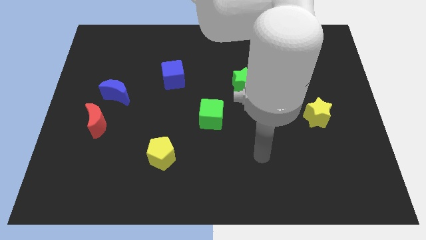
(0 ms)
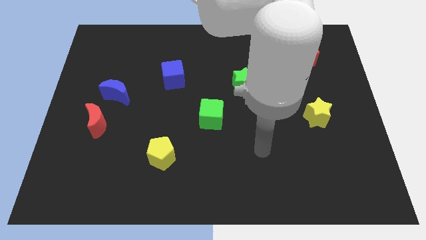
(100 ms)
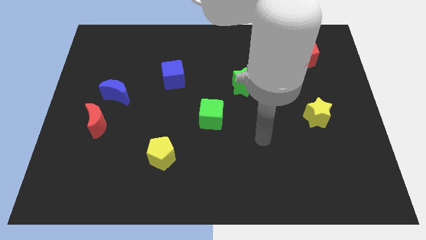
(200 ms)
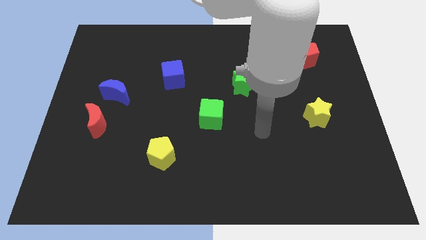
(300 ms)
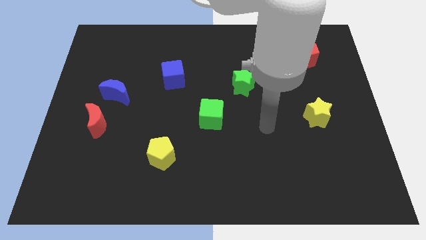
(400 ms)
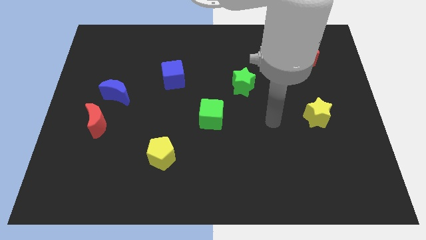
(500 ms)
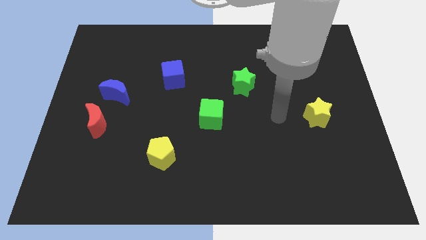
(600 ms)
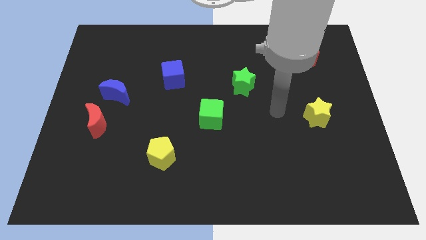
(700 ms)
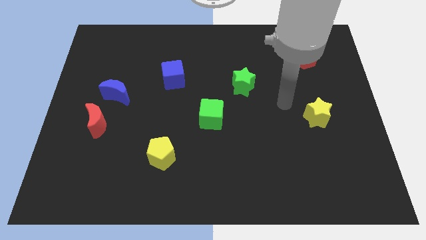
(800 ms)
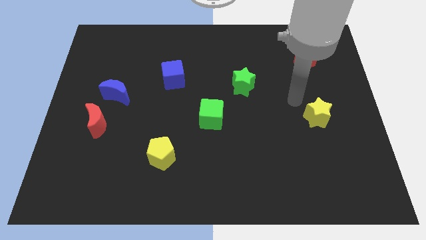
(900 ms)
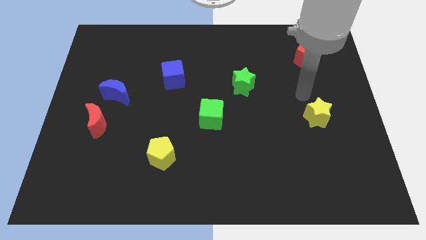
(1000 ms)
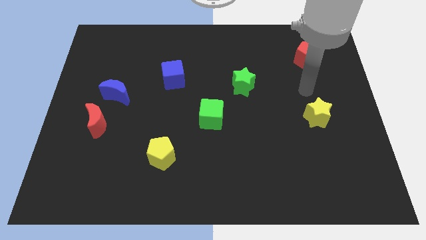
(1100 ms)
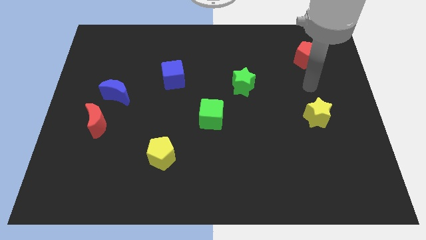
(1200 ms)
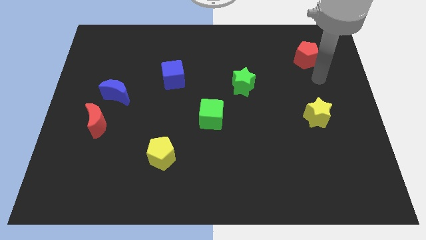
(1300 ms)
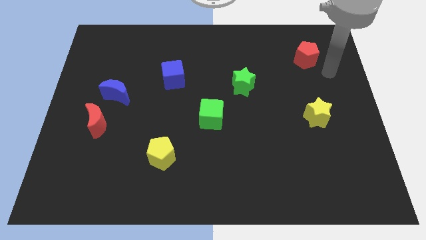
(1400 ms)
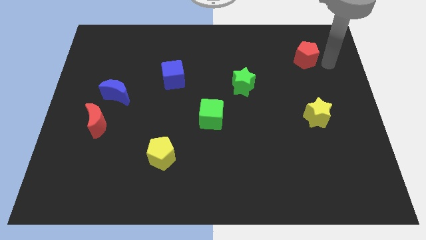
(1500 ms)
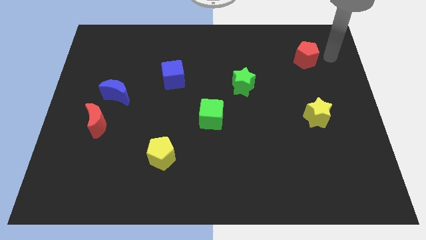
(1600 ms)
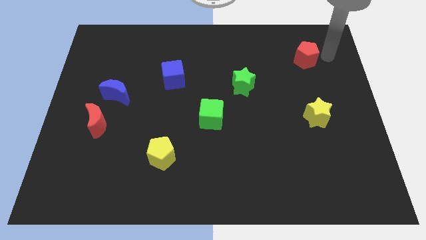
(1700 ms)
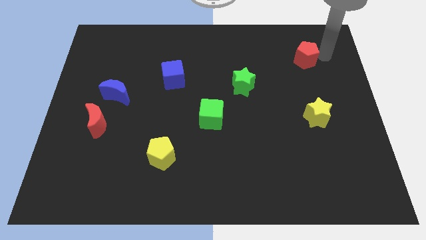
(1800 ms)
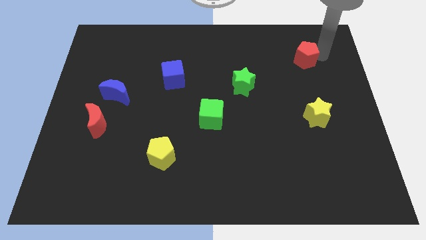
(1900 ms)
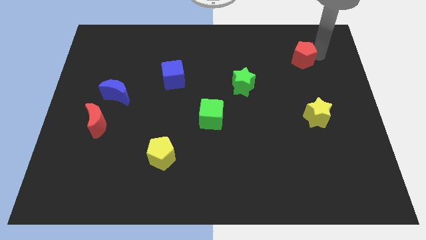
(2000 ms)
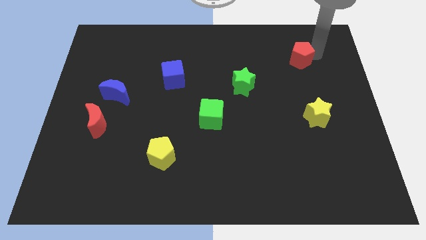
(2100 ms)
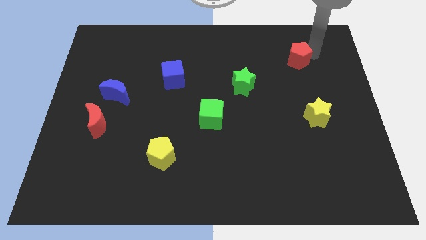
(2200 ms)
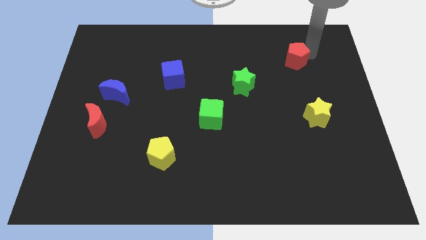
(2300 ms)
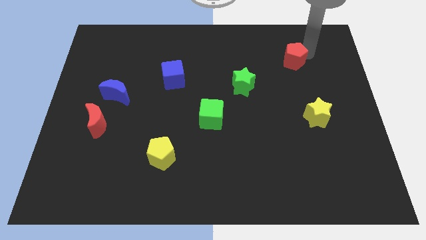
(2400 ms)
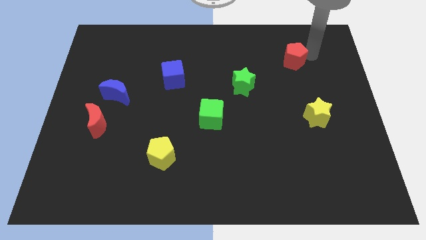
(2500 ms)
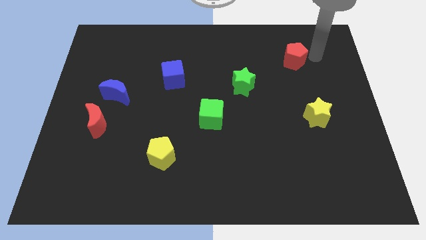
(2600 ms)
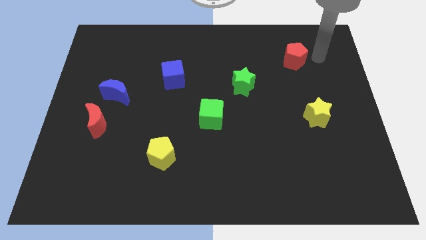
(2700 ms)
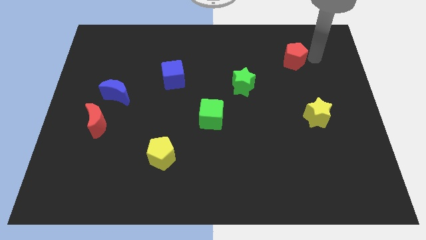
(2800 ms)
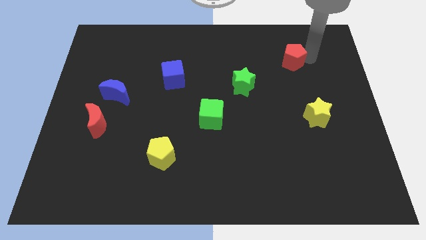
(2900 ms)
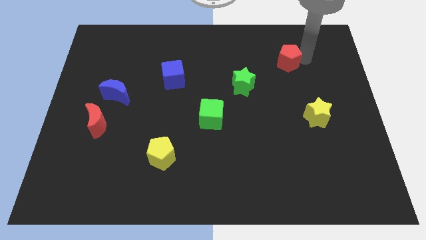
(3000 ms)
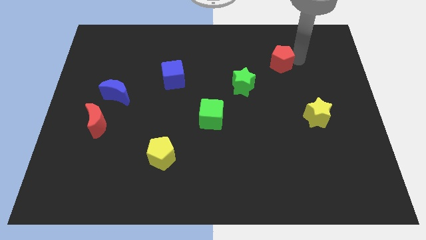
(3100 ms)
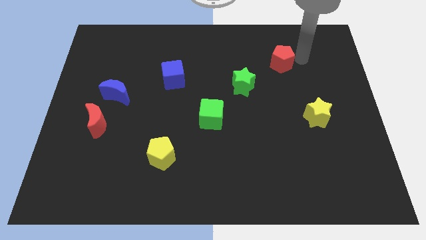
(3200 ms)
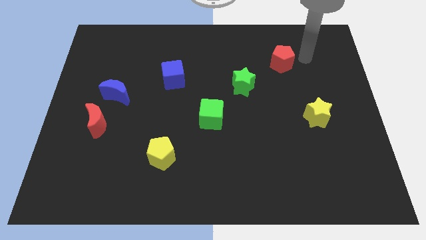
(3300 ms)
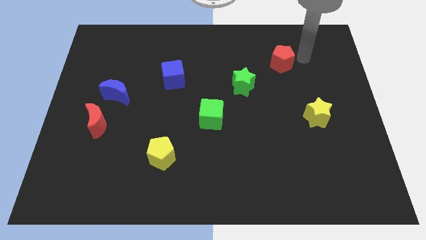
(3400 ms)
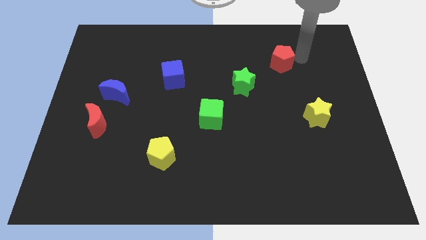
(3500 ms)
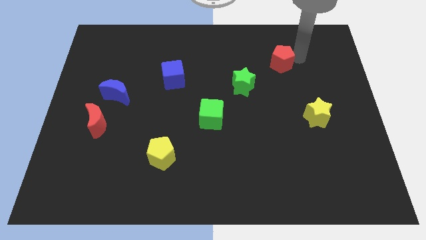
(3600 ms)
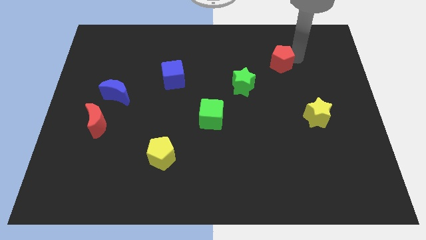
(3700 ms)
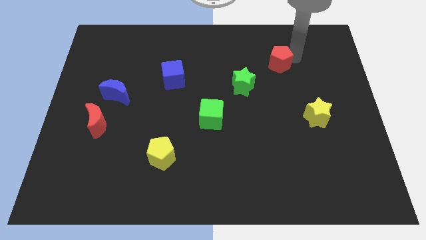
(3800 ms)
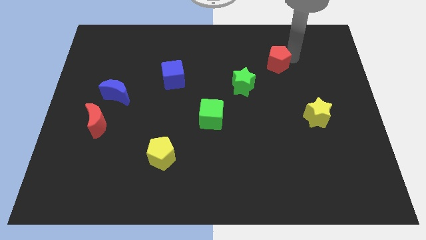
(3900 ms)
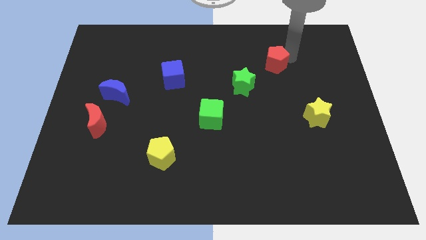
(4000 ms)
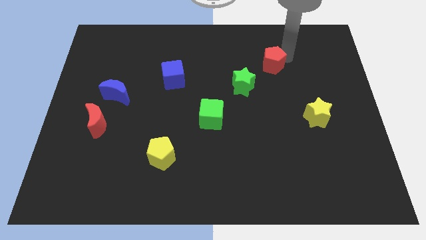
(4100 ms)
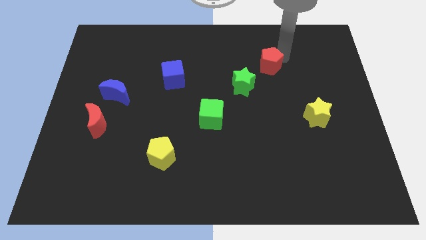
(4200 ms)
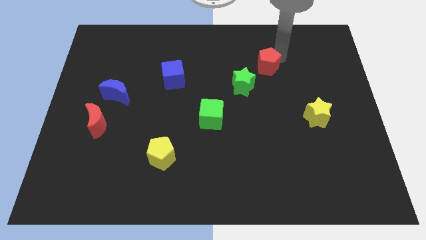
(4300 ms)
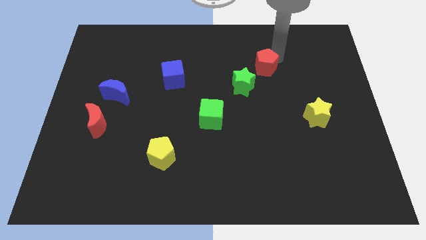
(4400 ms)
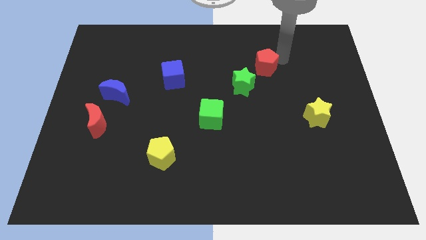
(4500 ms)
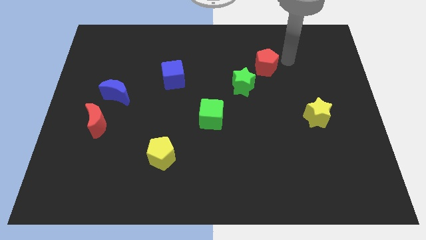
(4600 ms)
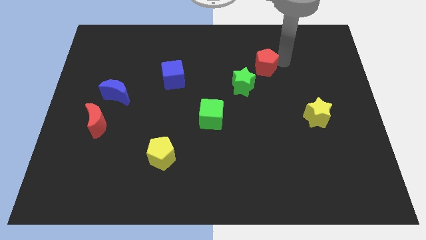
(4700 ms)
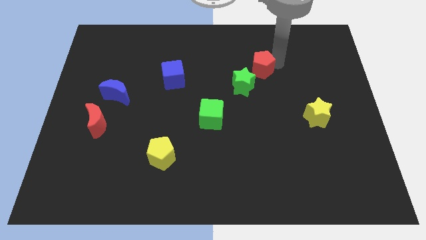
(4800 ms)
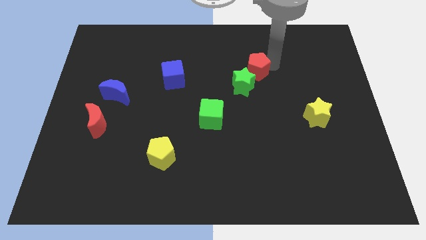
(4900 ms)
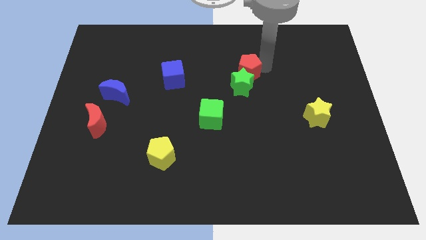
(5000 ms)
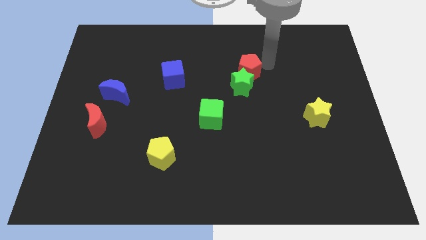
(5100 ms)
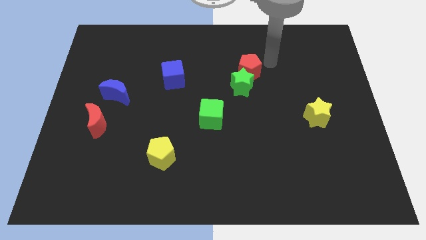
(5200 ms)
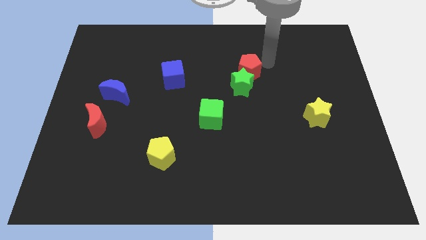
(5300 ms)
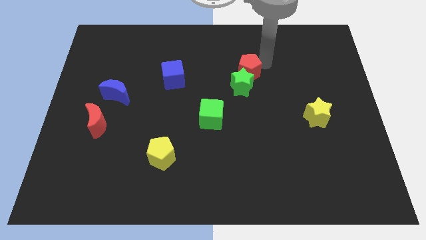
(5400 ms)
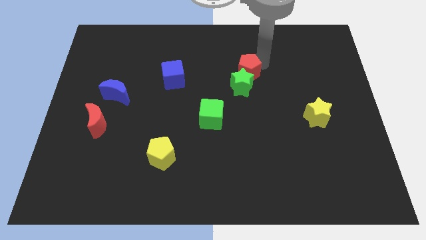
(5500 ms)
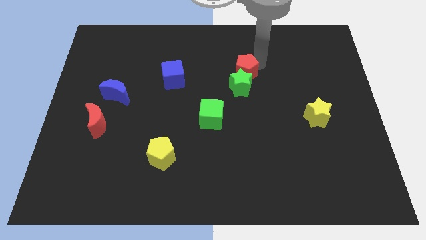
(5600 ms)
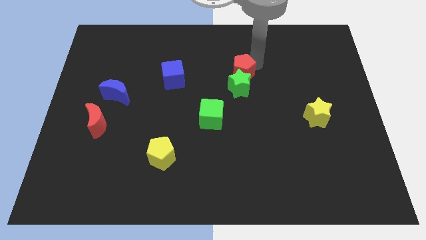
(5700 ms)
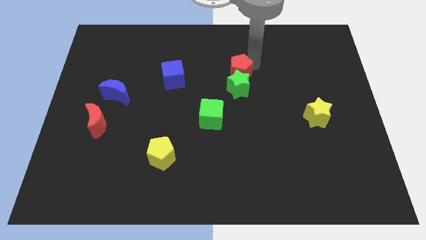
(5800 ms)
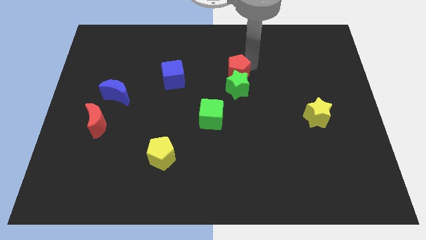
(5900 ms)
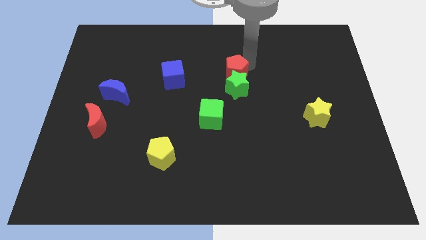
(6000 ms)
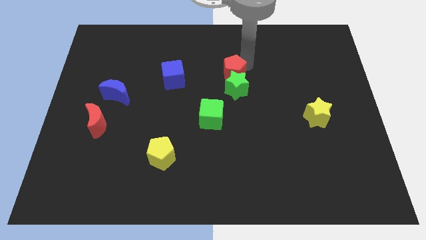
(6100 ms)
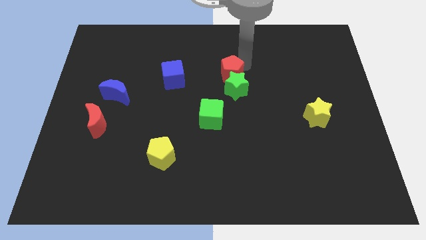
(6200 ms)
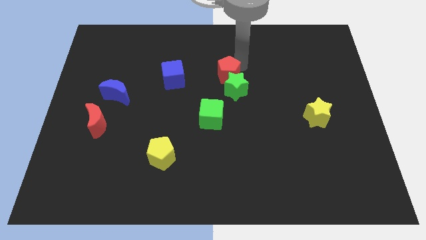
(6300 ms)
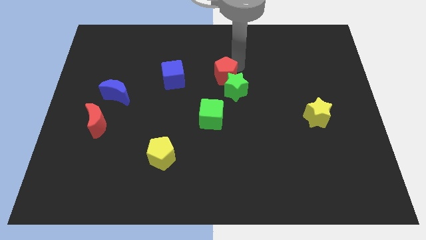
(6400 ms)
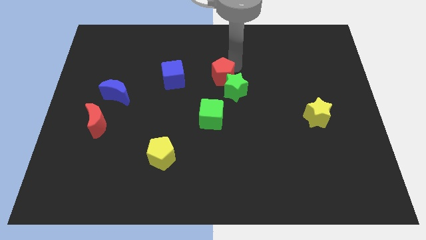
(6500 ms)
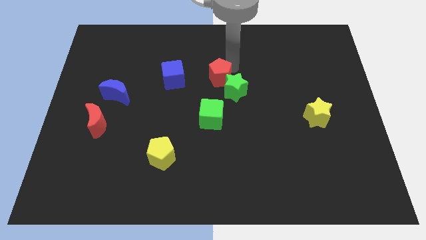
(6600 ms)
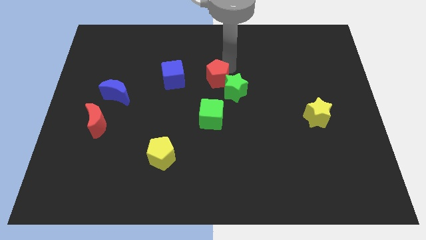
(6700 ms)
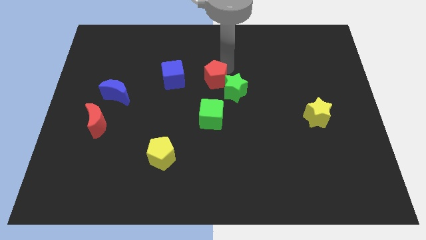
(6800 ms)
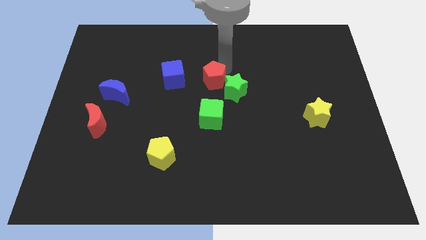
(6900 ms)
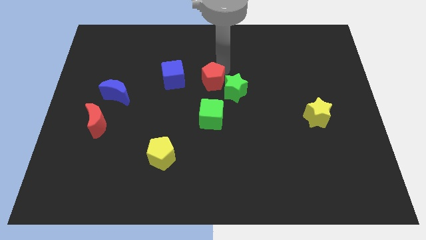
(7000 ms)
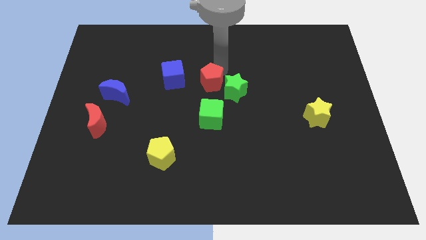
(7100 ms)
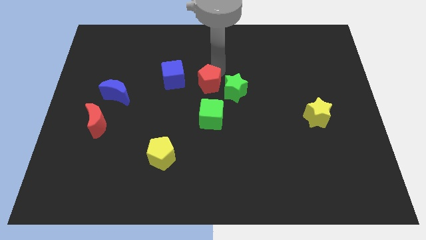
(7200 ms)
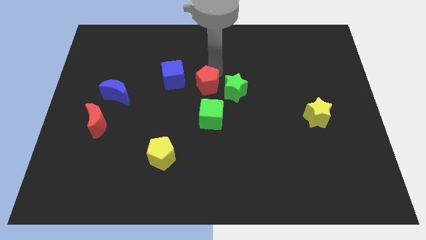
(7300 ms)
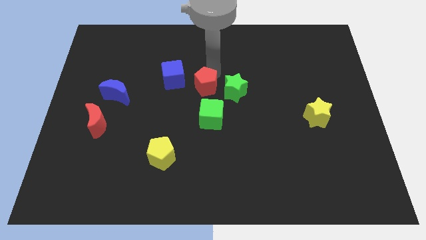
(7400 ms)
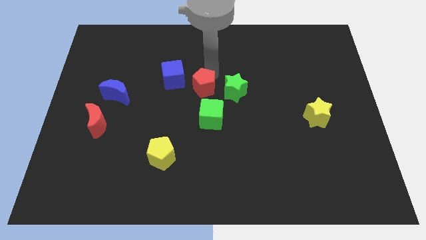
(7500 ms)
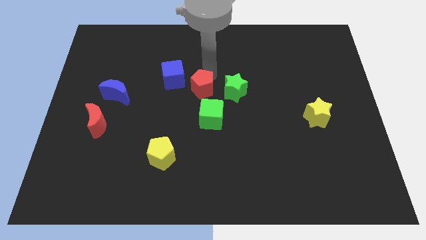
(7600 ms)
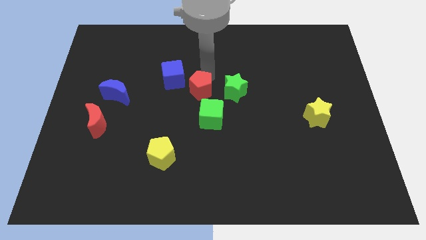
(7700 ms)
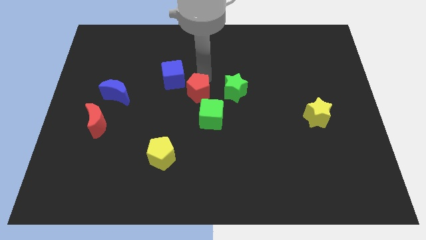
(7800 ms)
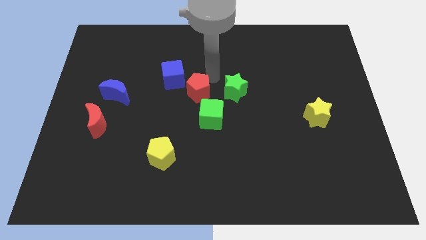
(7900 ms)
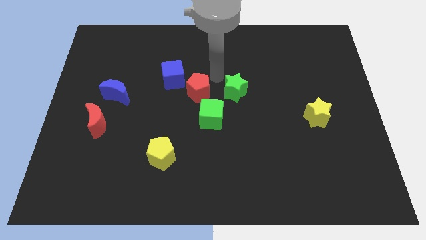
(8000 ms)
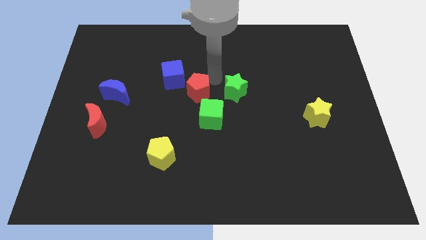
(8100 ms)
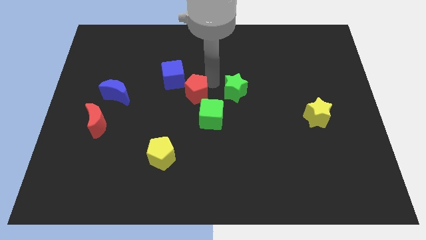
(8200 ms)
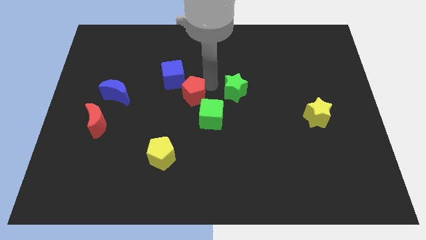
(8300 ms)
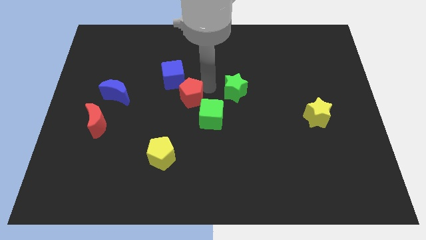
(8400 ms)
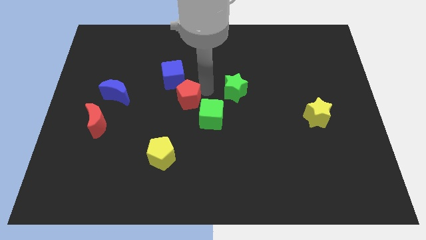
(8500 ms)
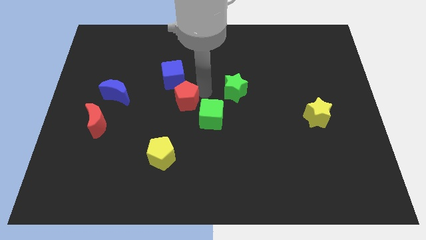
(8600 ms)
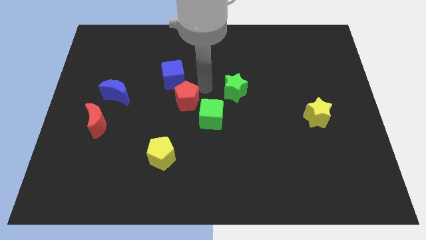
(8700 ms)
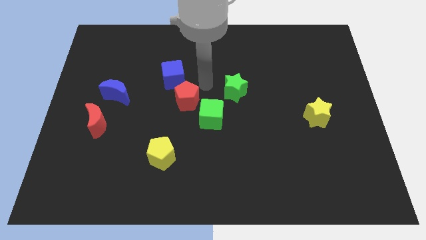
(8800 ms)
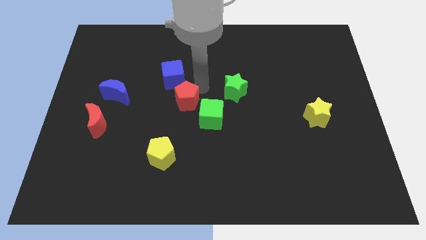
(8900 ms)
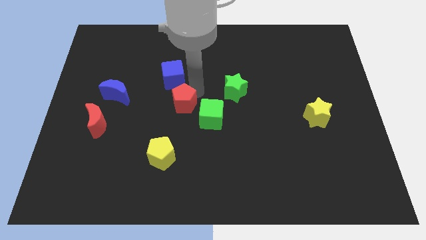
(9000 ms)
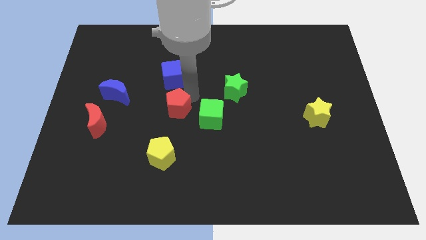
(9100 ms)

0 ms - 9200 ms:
slide the red pentagon above the yellow pentagon
